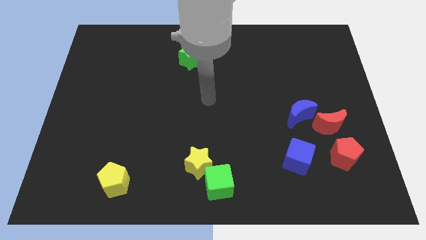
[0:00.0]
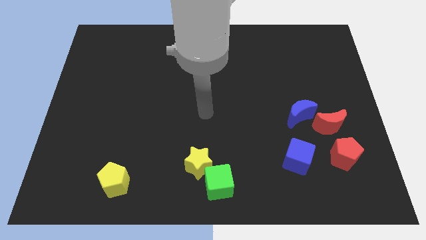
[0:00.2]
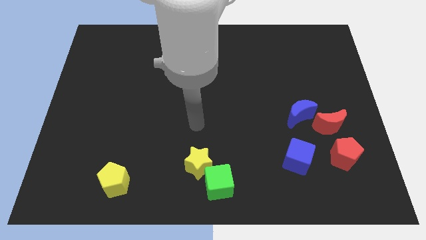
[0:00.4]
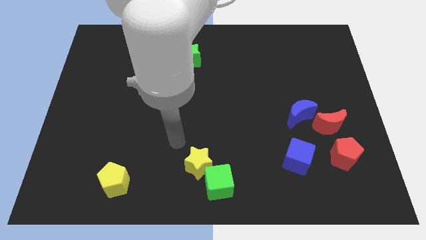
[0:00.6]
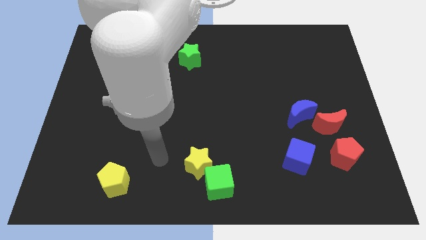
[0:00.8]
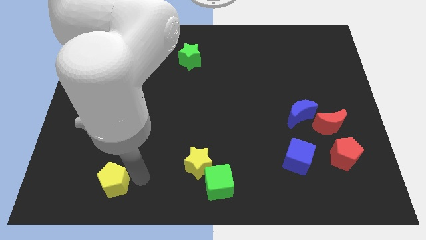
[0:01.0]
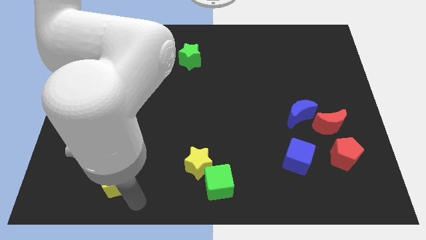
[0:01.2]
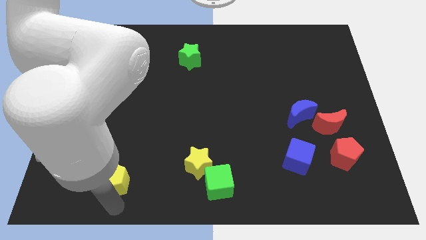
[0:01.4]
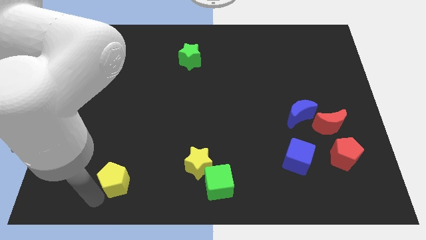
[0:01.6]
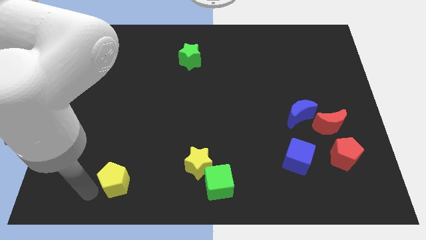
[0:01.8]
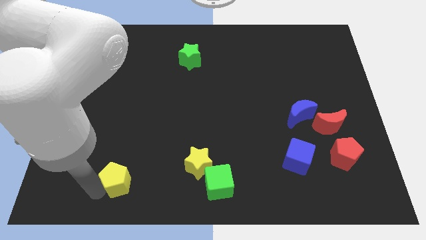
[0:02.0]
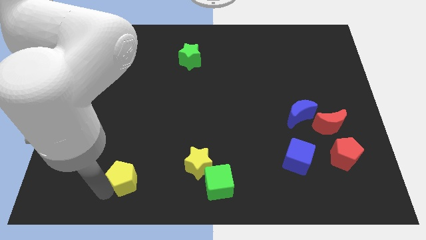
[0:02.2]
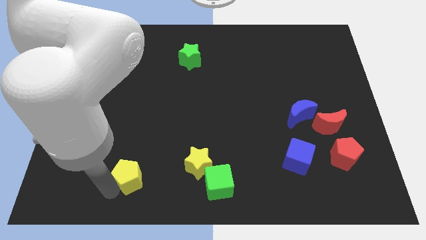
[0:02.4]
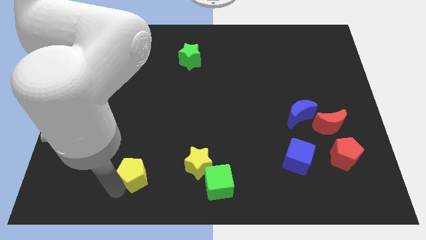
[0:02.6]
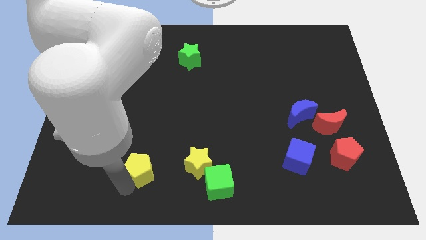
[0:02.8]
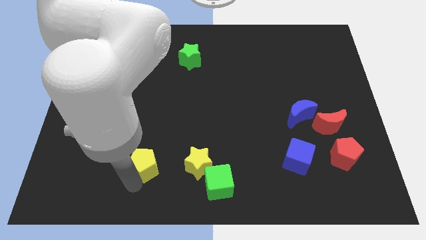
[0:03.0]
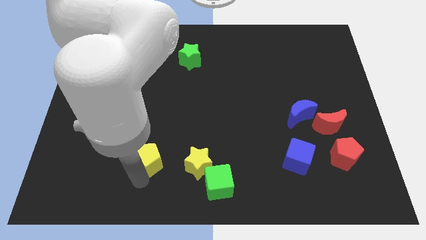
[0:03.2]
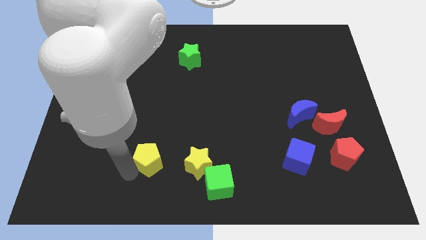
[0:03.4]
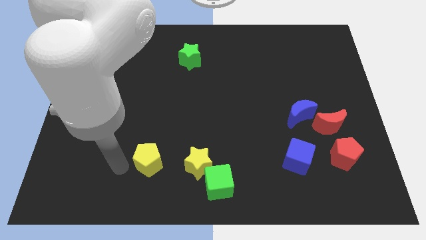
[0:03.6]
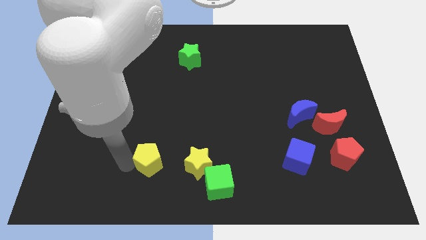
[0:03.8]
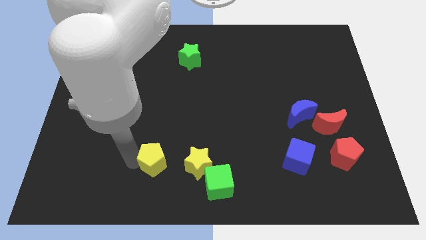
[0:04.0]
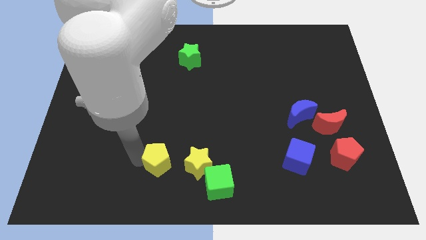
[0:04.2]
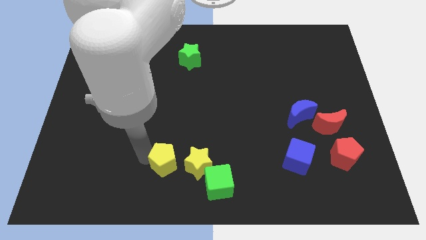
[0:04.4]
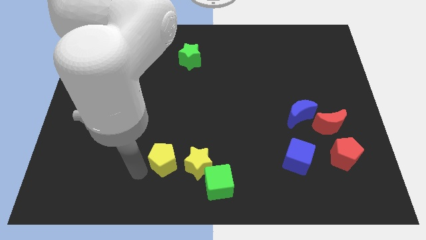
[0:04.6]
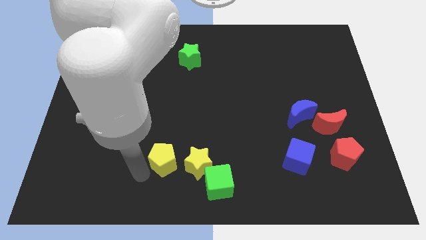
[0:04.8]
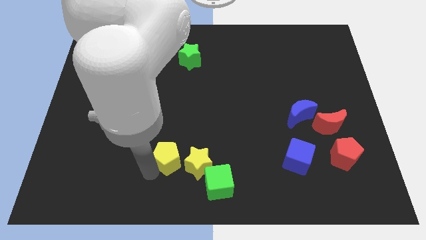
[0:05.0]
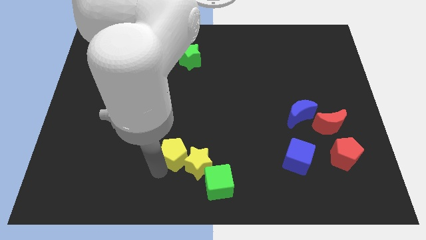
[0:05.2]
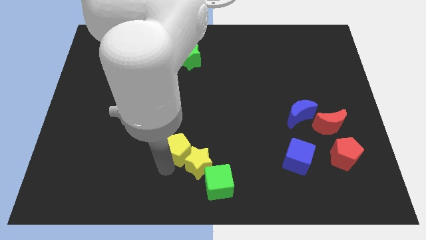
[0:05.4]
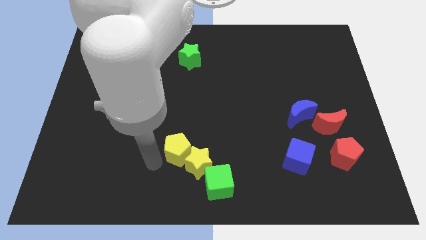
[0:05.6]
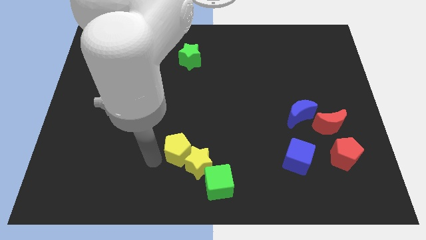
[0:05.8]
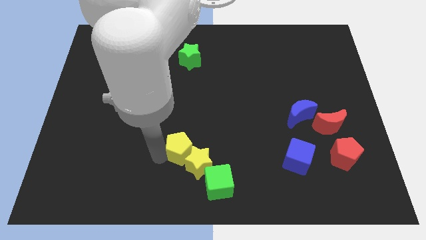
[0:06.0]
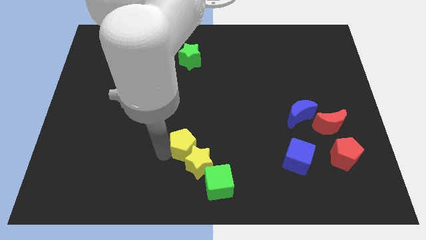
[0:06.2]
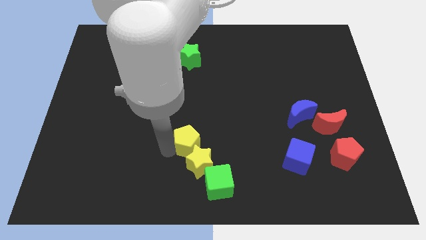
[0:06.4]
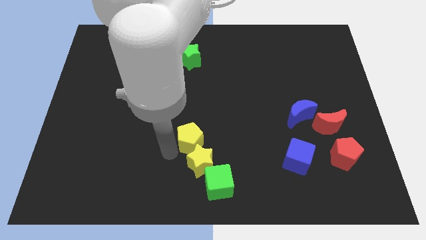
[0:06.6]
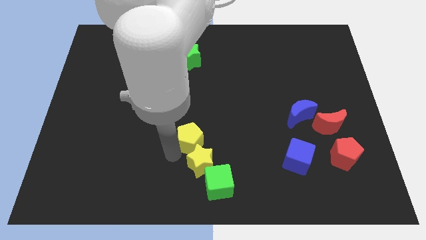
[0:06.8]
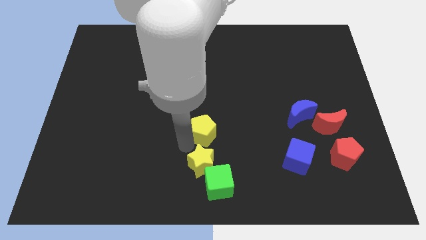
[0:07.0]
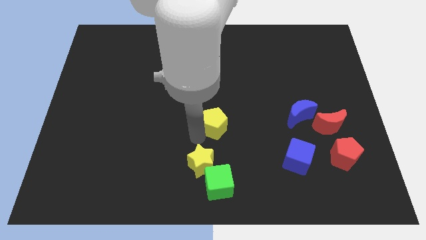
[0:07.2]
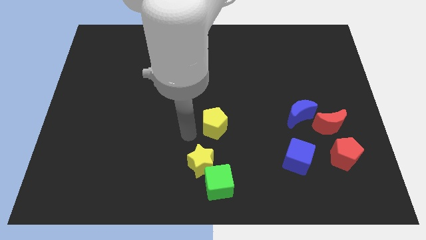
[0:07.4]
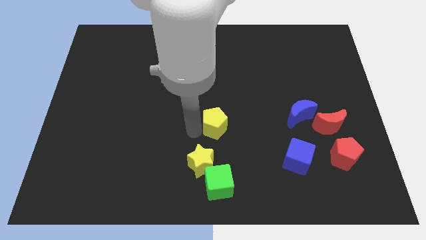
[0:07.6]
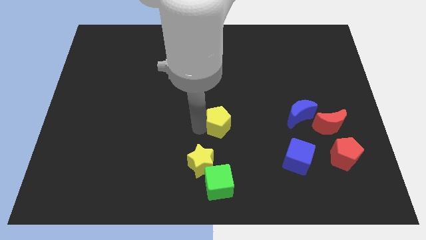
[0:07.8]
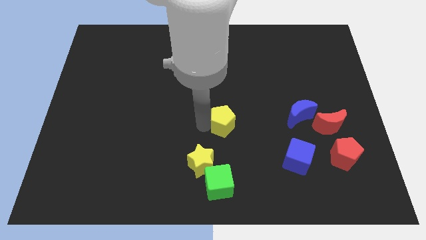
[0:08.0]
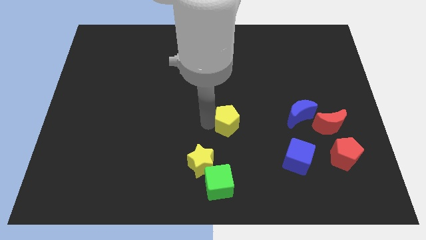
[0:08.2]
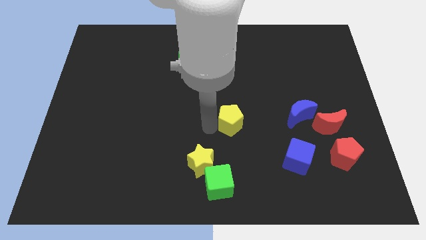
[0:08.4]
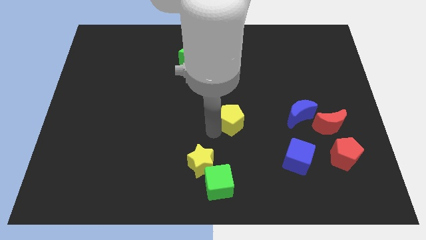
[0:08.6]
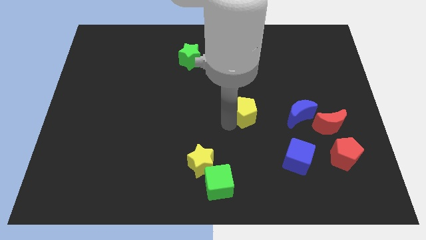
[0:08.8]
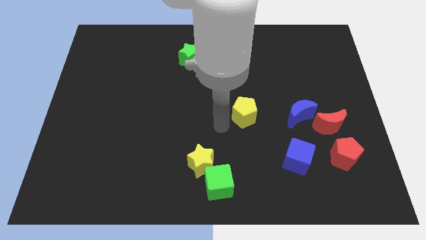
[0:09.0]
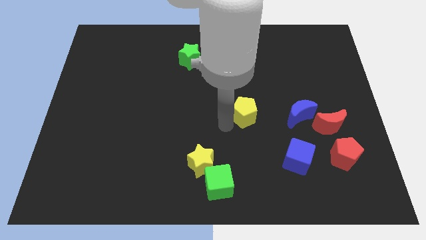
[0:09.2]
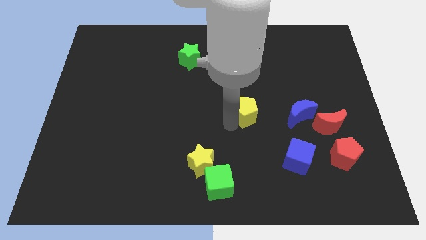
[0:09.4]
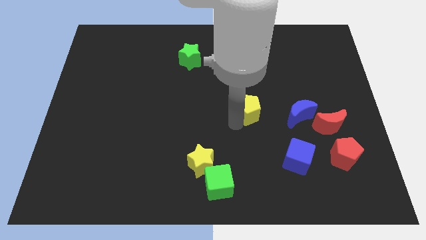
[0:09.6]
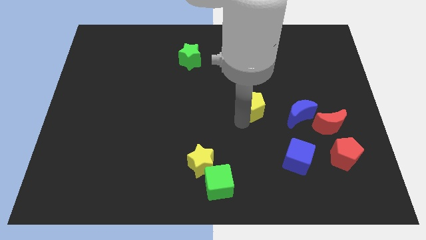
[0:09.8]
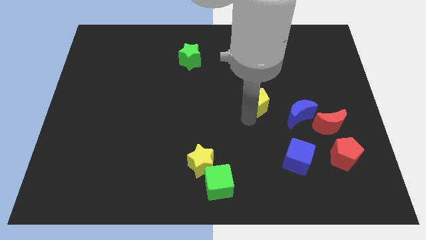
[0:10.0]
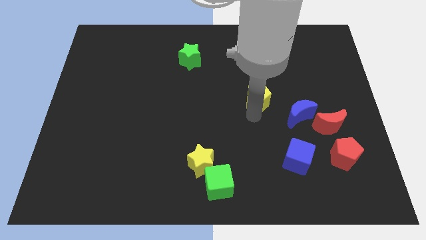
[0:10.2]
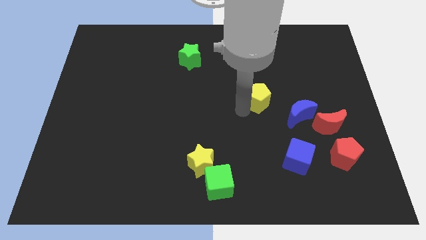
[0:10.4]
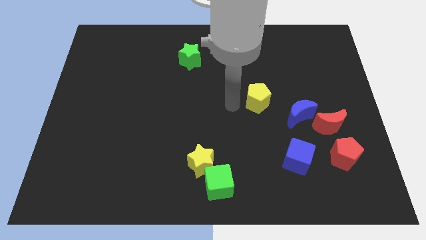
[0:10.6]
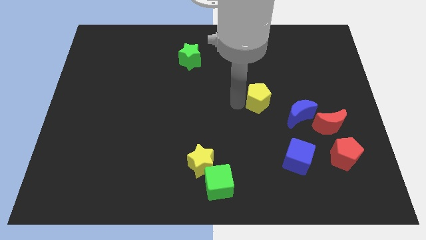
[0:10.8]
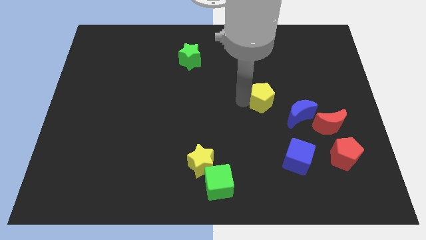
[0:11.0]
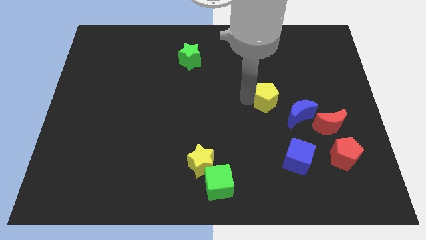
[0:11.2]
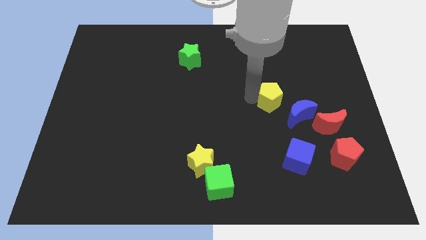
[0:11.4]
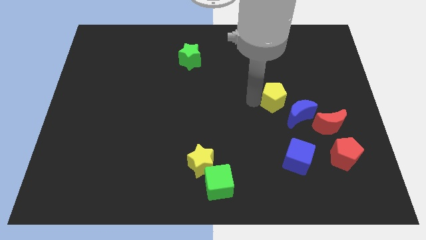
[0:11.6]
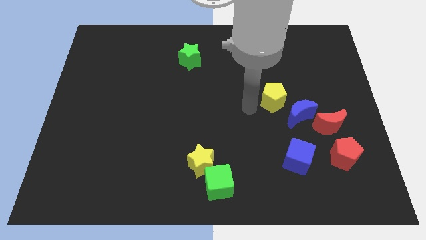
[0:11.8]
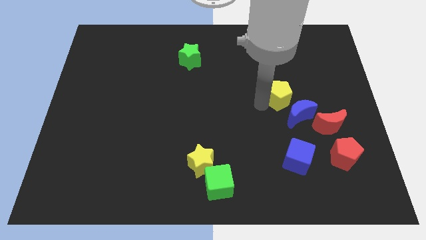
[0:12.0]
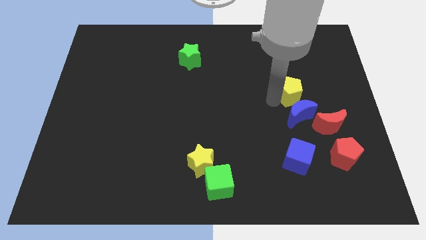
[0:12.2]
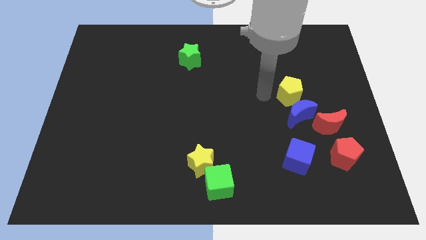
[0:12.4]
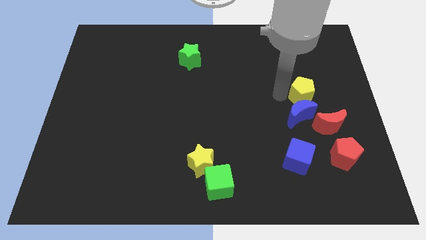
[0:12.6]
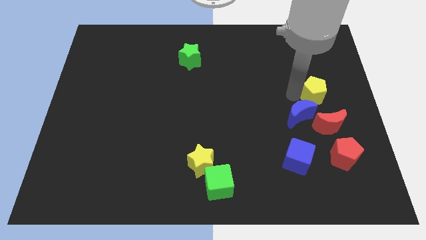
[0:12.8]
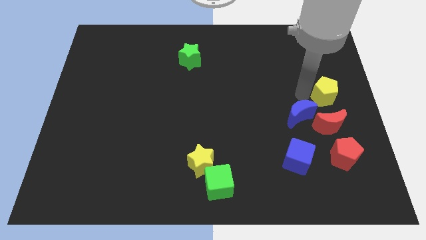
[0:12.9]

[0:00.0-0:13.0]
push the yellow pentagon to the right side
